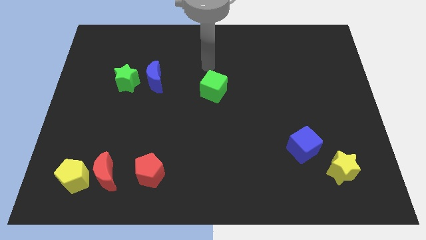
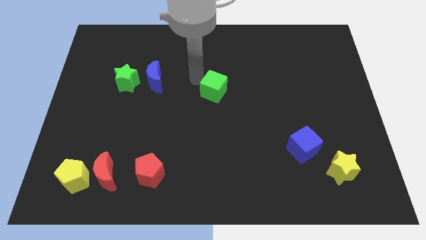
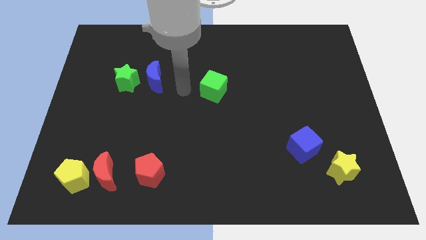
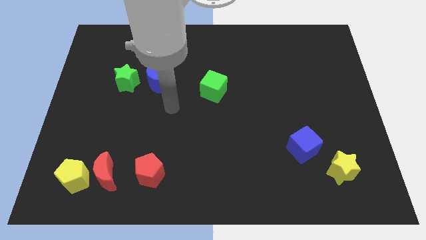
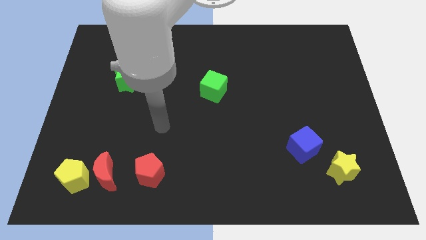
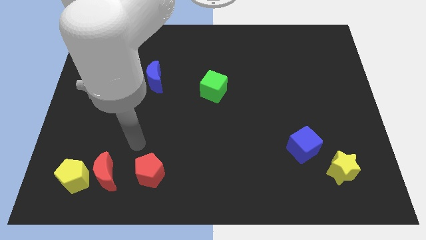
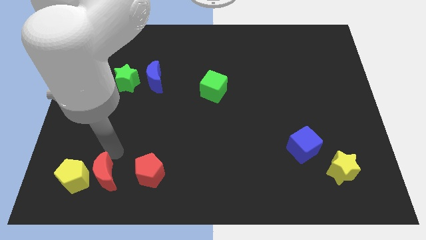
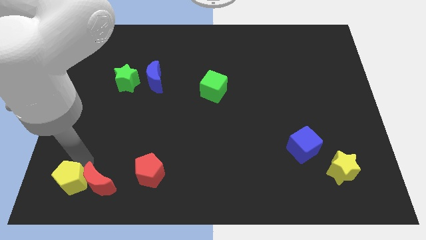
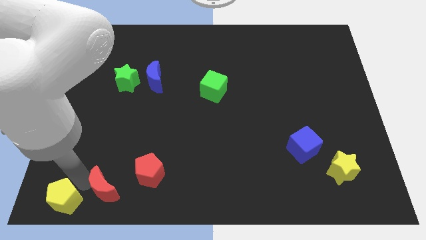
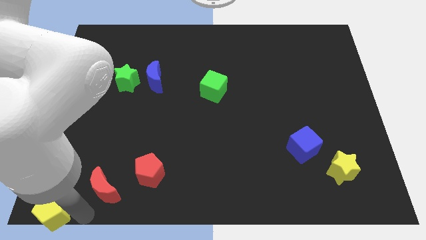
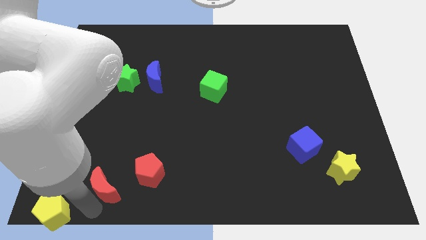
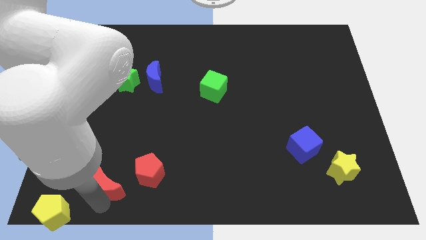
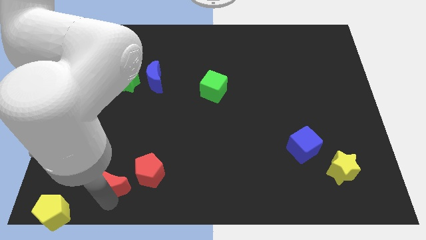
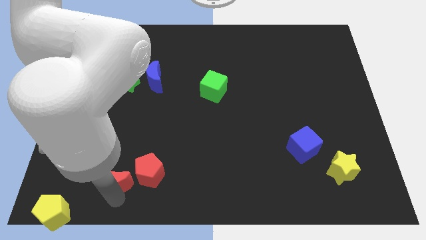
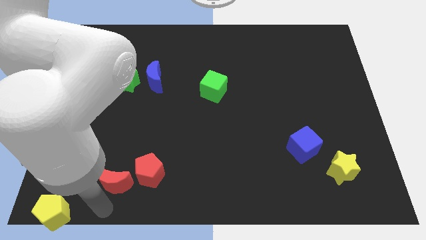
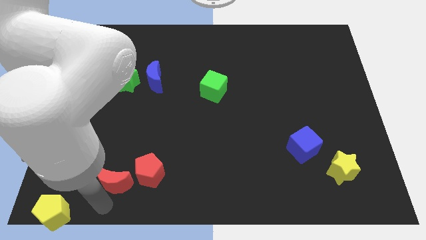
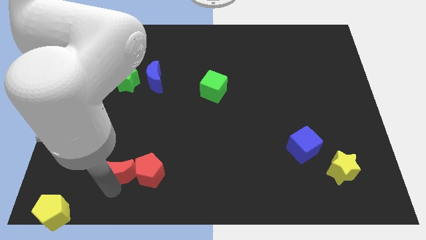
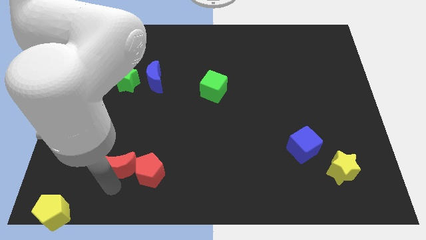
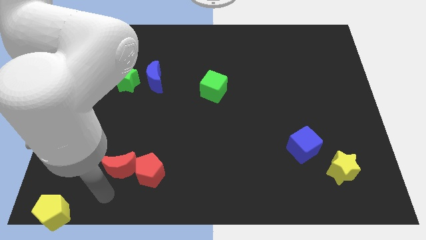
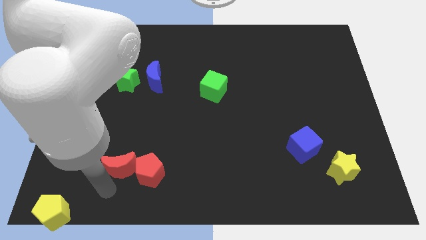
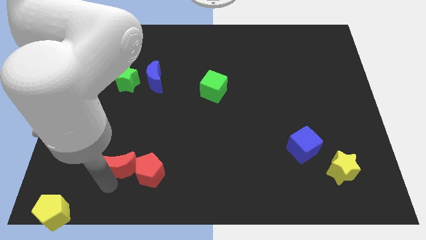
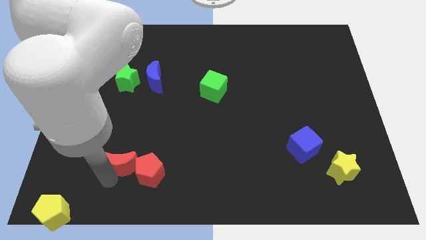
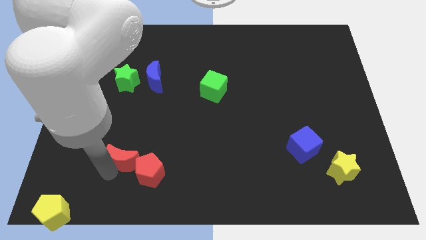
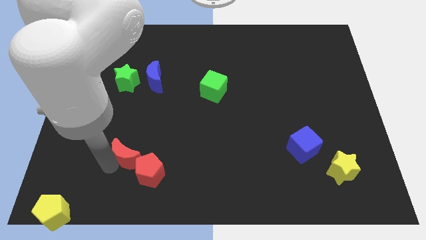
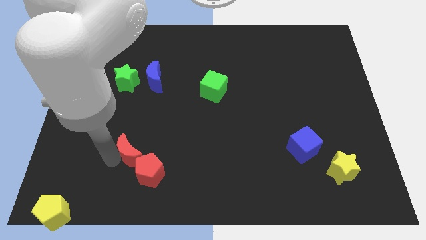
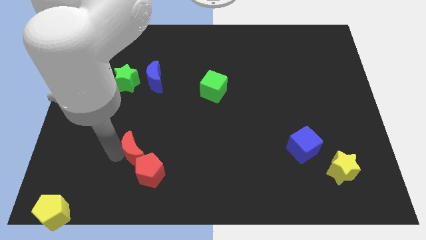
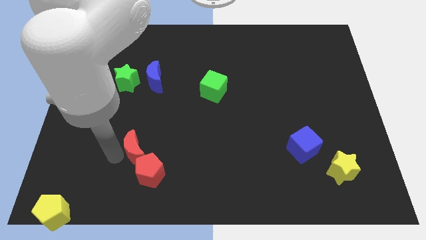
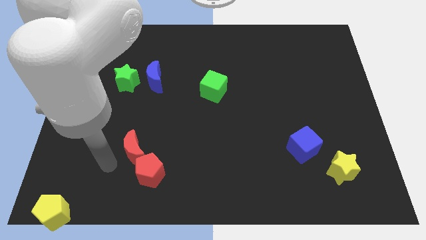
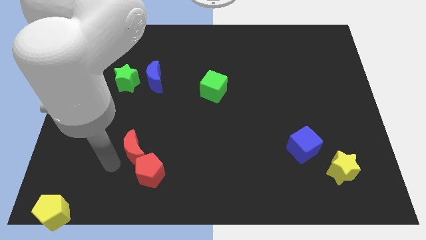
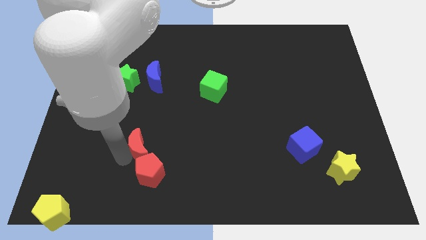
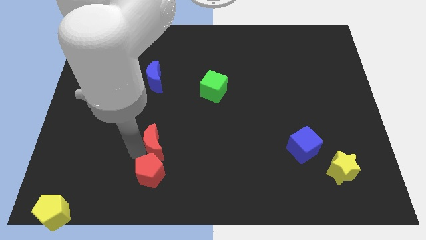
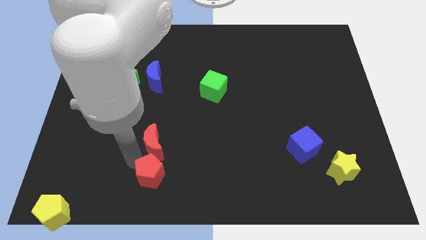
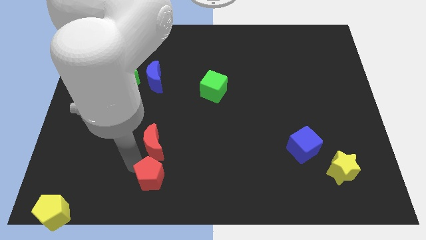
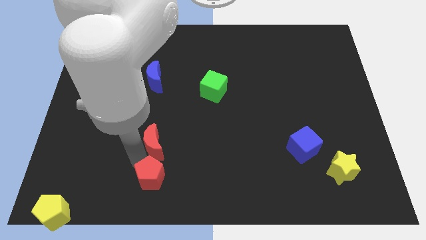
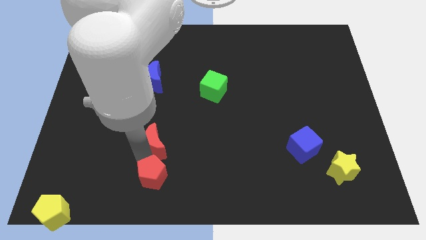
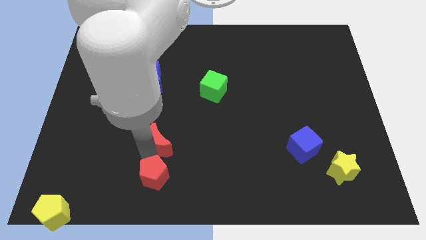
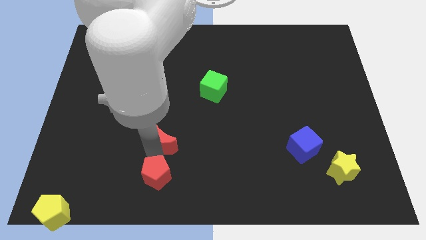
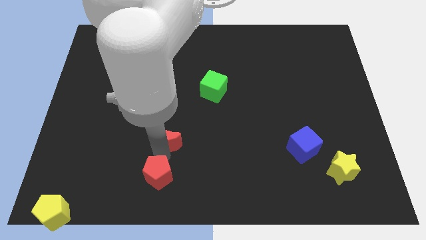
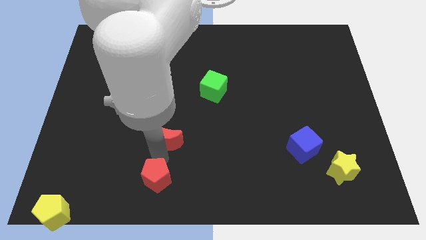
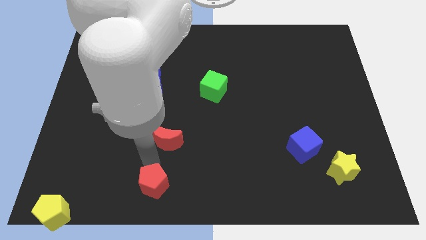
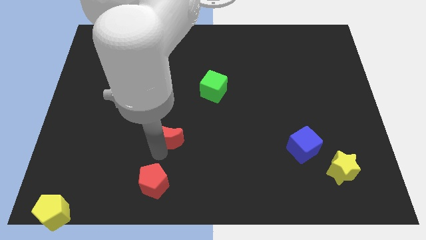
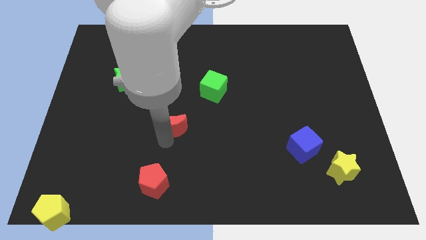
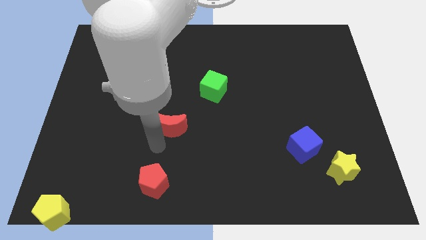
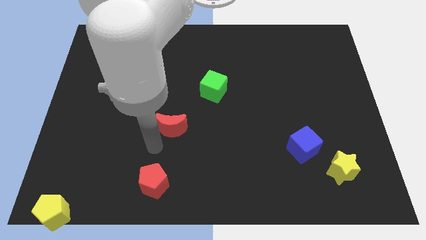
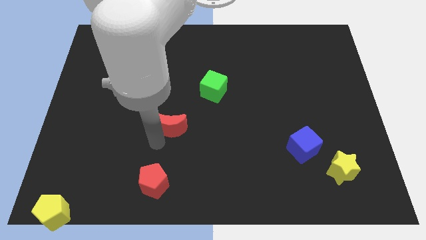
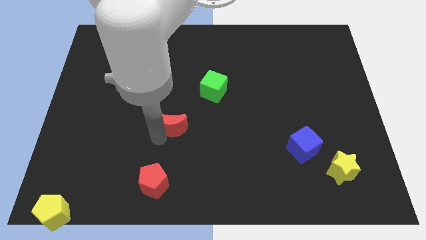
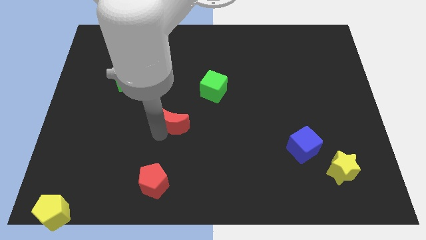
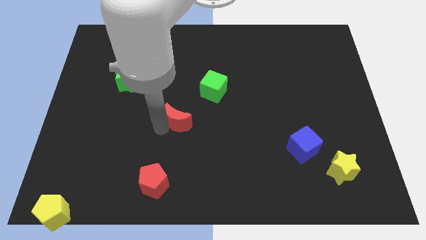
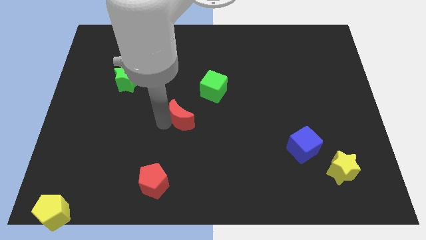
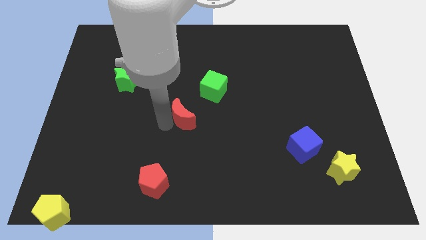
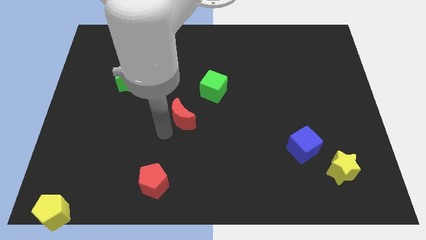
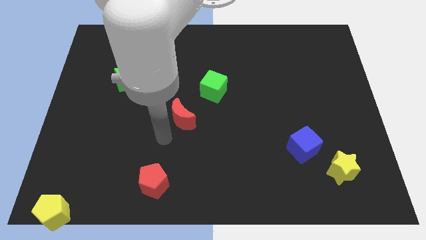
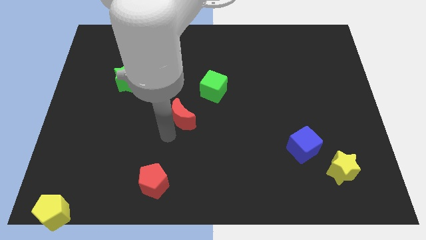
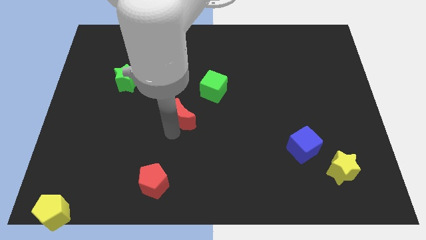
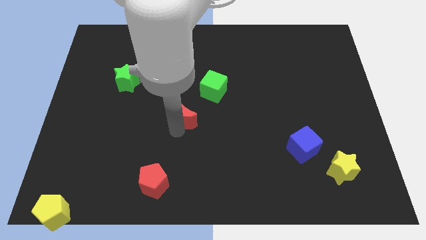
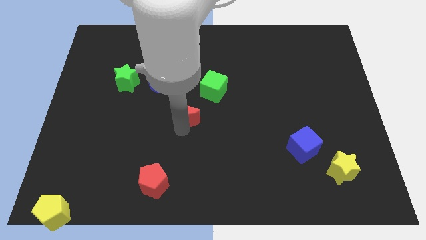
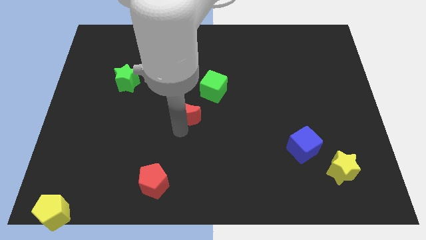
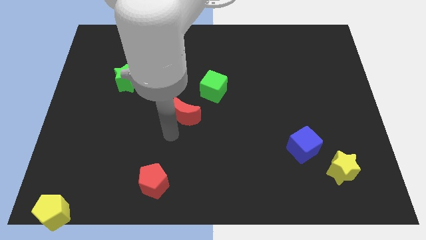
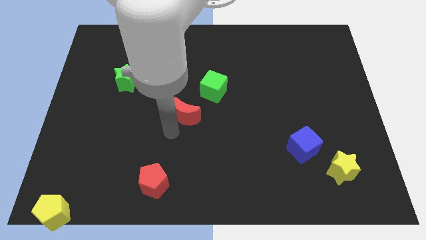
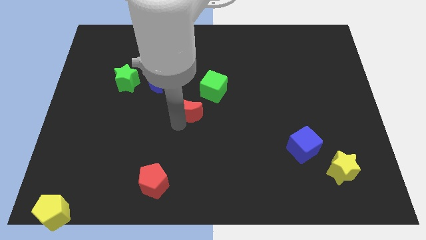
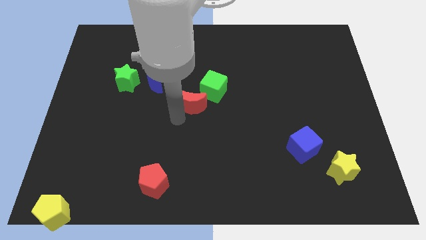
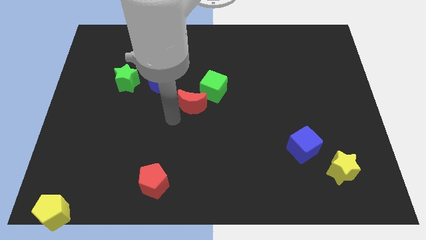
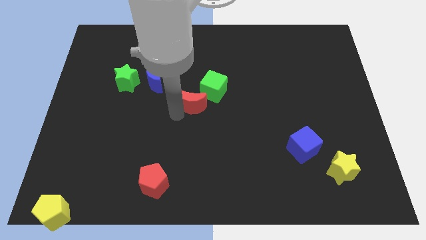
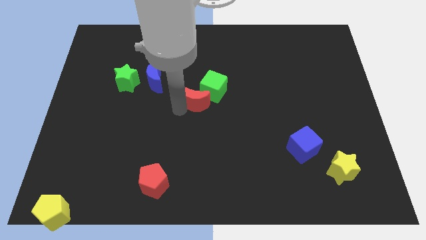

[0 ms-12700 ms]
push the red moon next to the green cube

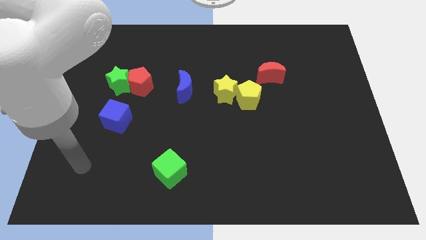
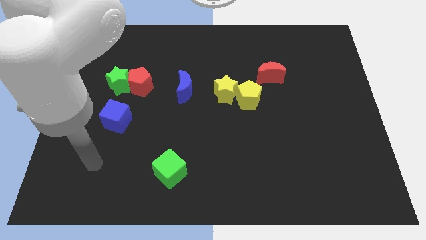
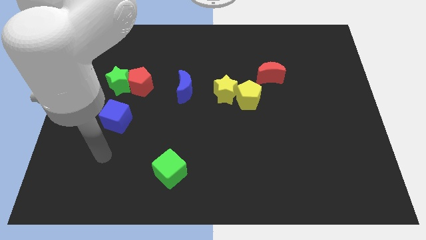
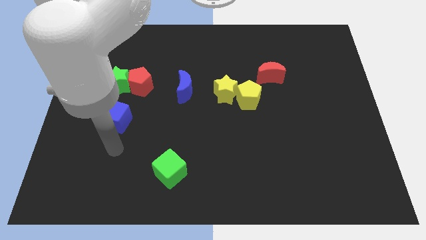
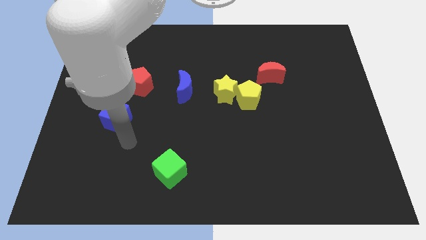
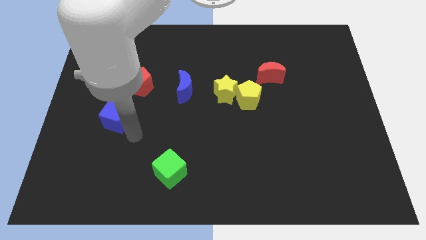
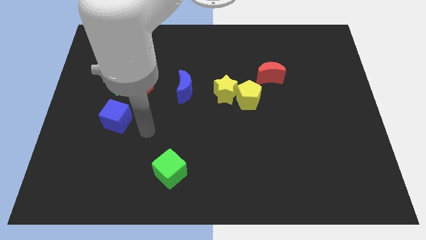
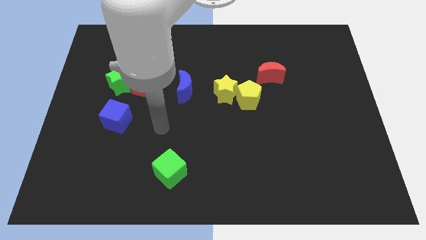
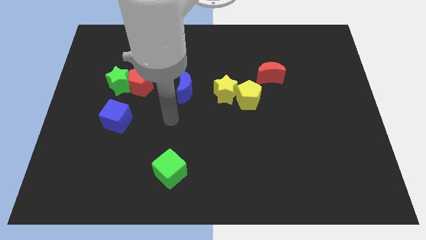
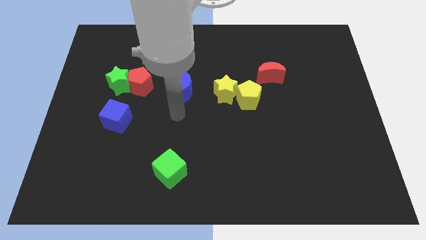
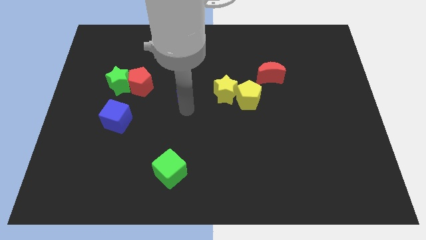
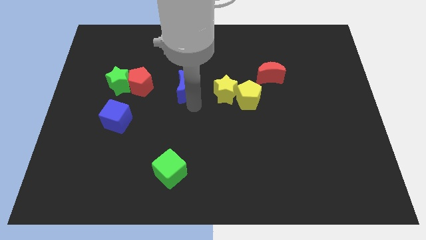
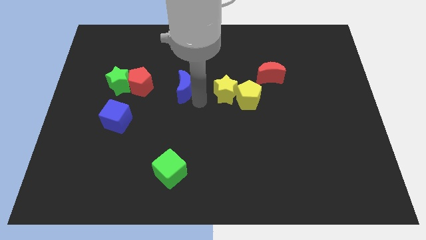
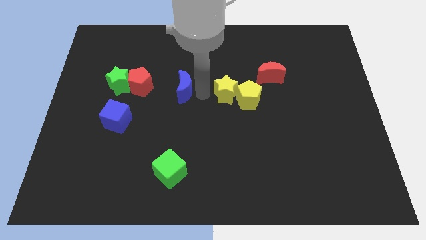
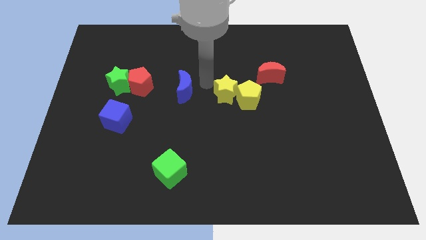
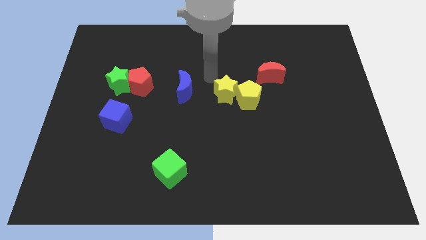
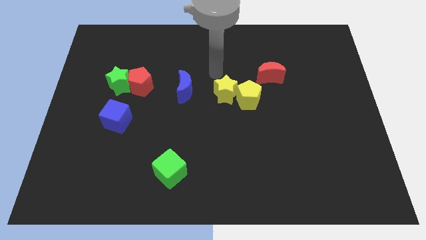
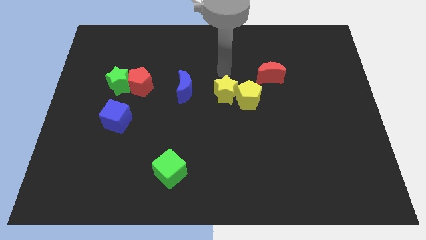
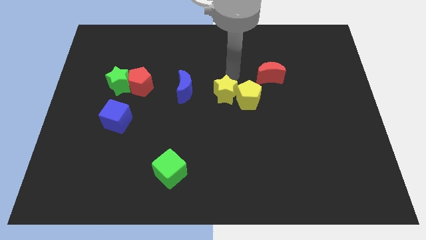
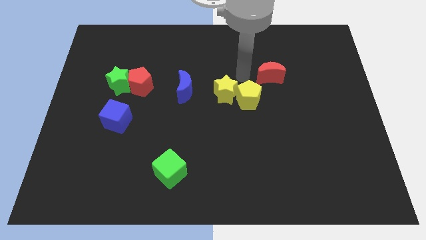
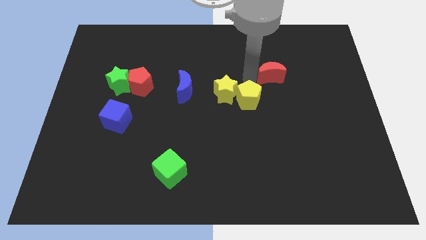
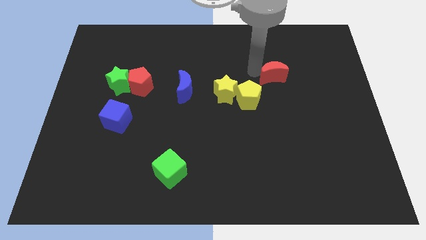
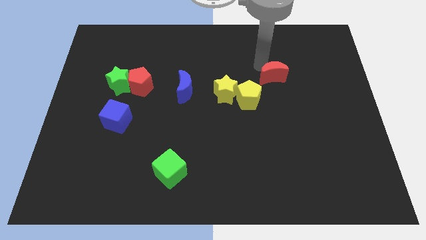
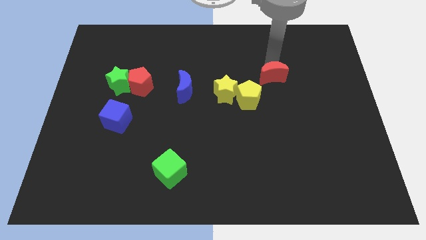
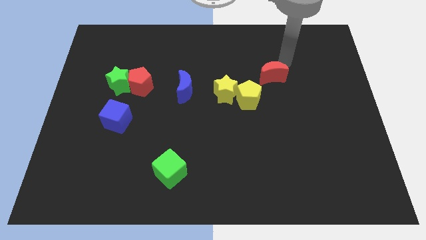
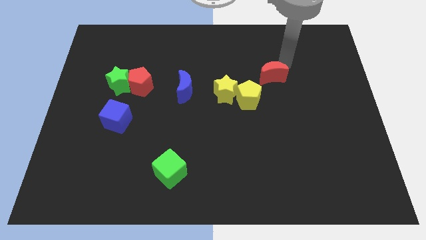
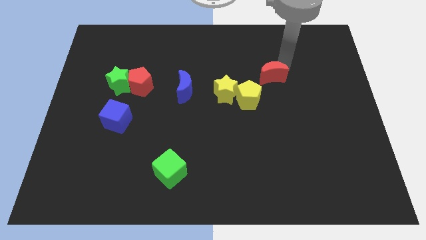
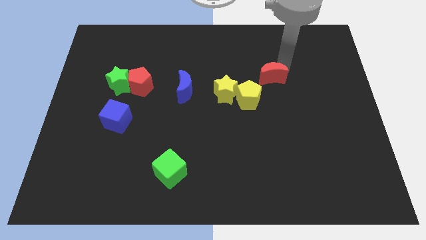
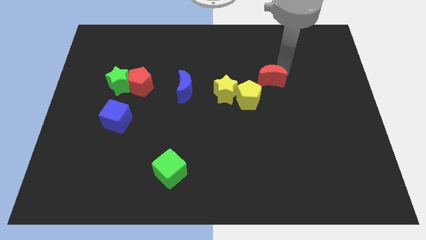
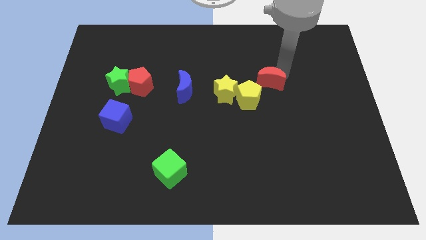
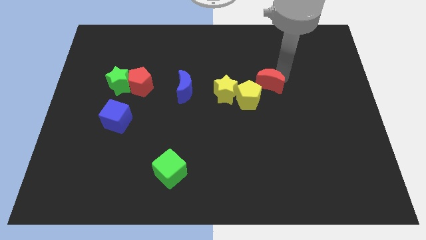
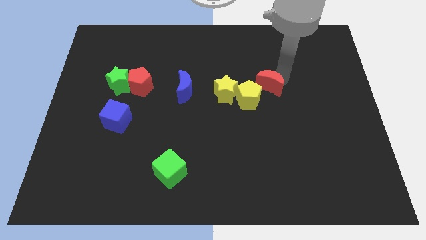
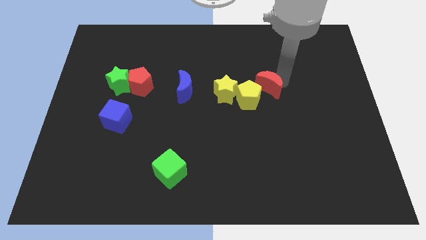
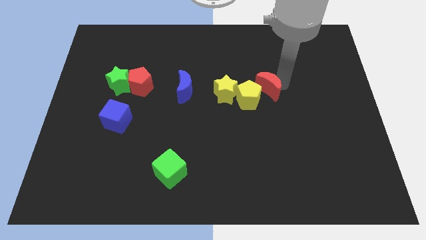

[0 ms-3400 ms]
put the red moon next to the yellow pentagon
